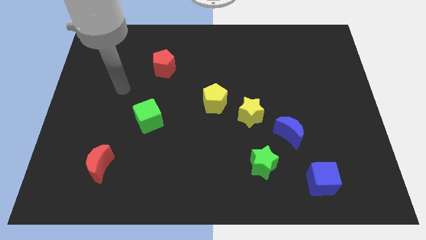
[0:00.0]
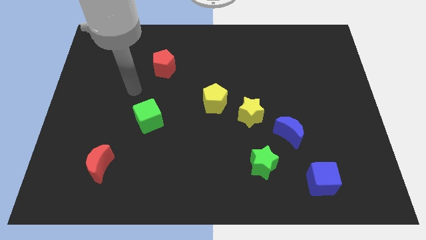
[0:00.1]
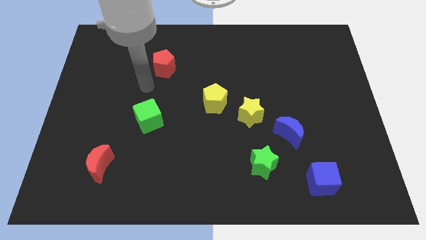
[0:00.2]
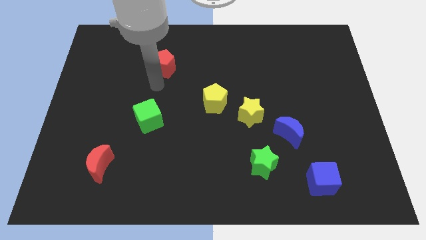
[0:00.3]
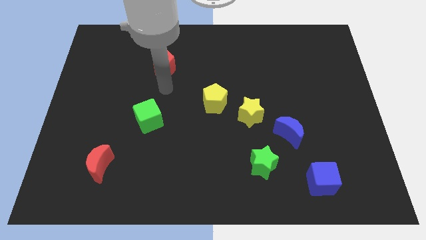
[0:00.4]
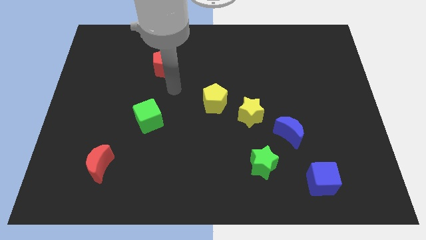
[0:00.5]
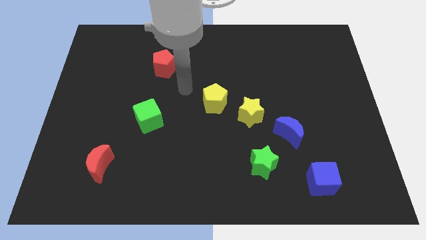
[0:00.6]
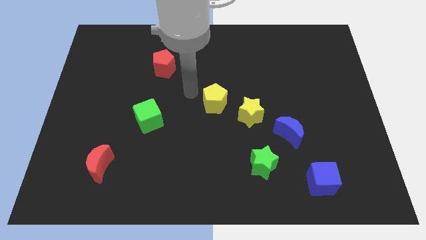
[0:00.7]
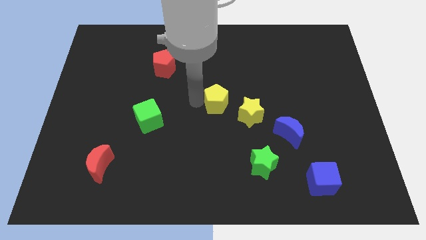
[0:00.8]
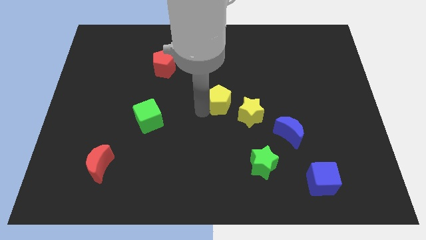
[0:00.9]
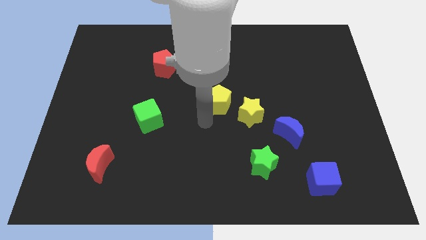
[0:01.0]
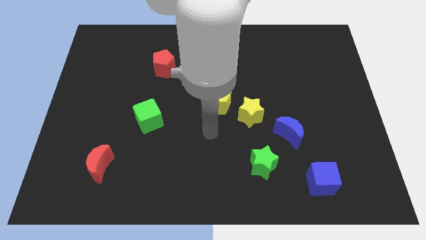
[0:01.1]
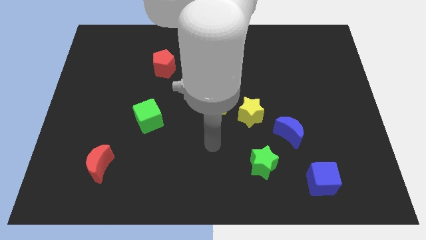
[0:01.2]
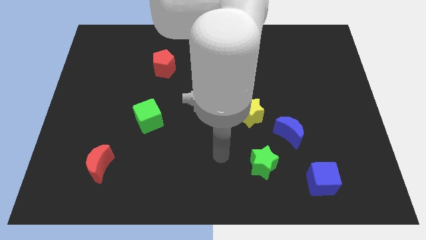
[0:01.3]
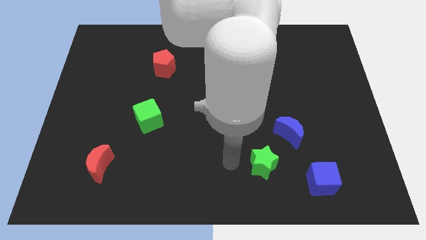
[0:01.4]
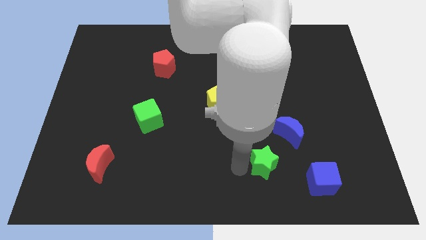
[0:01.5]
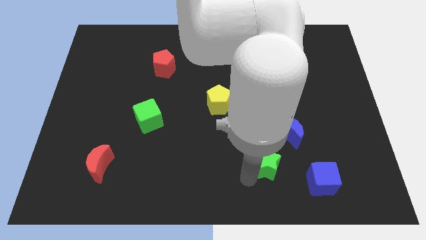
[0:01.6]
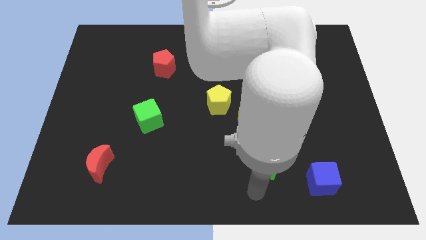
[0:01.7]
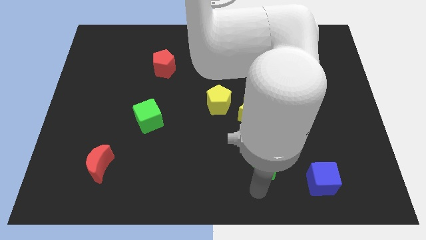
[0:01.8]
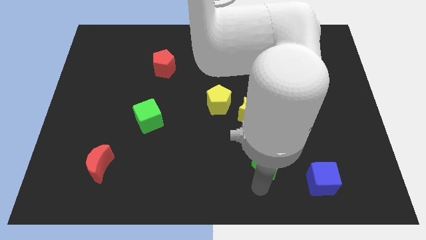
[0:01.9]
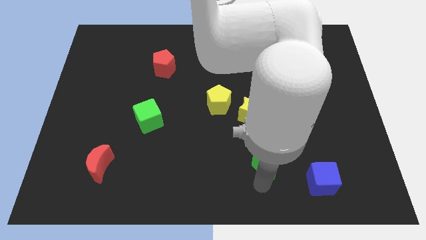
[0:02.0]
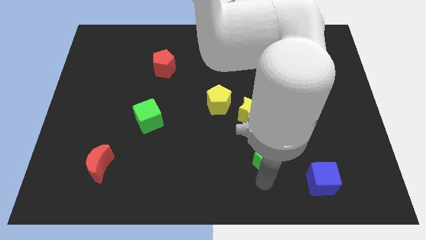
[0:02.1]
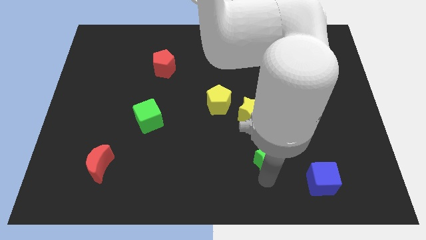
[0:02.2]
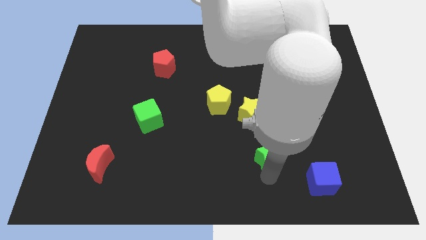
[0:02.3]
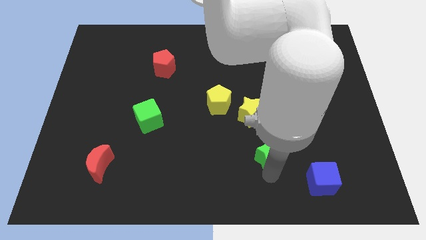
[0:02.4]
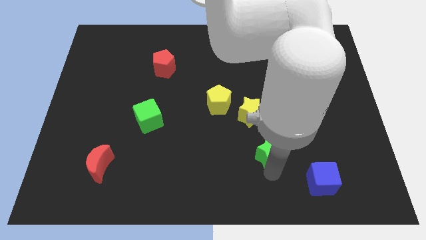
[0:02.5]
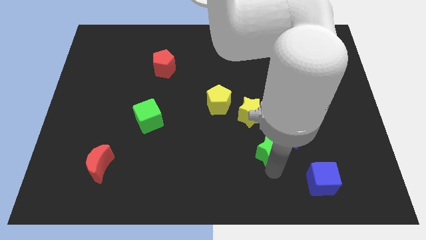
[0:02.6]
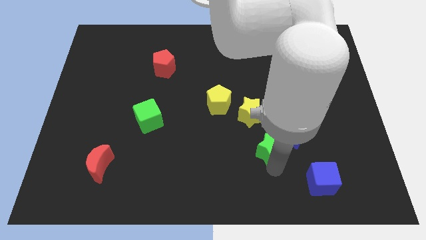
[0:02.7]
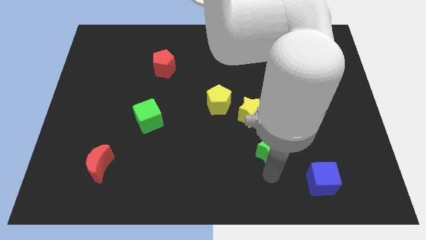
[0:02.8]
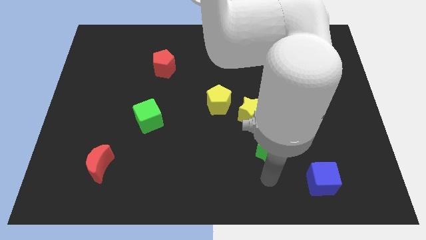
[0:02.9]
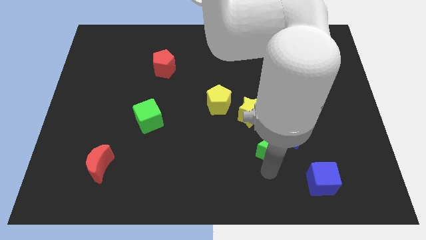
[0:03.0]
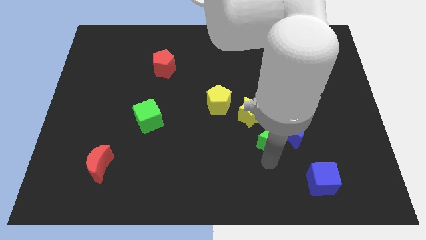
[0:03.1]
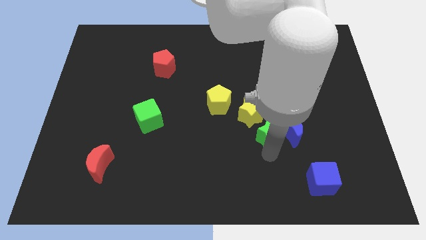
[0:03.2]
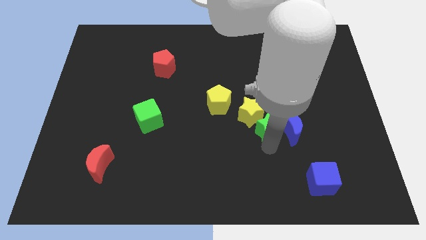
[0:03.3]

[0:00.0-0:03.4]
move the green star slightly up and to the right

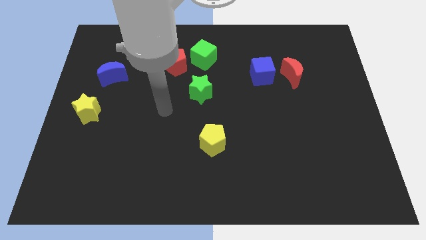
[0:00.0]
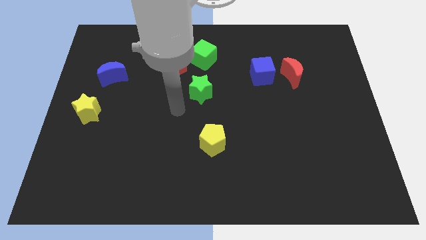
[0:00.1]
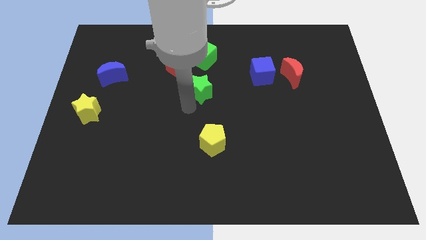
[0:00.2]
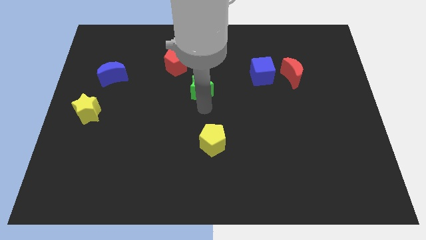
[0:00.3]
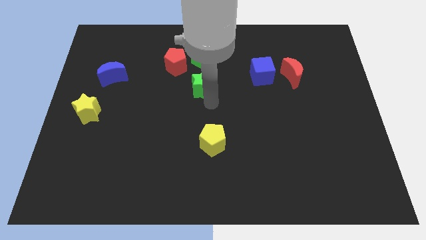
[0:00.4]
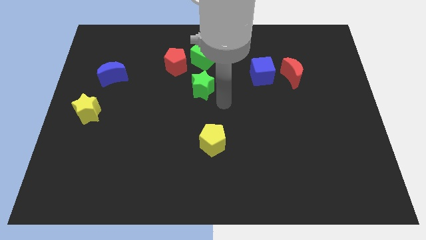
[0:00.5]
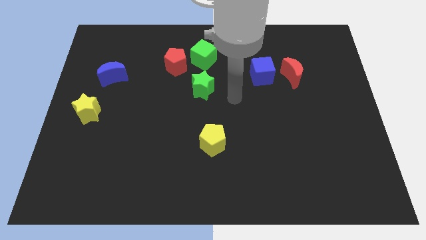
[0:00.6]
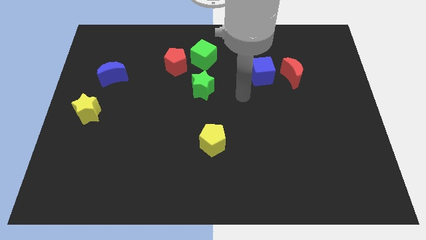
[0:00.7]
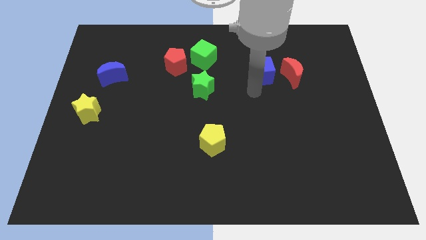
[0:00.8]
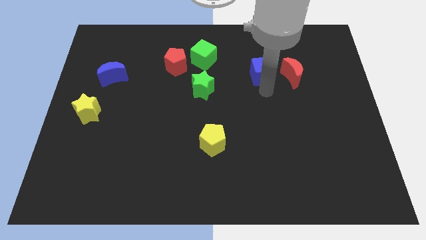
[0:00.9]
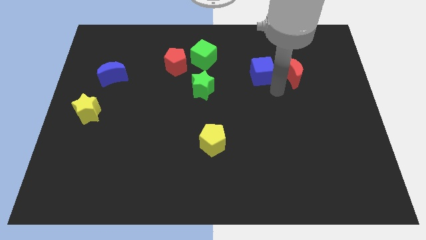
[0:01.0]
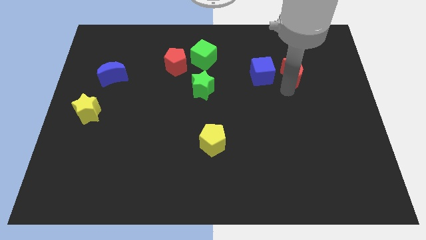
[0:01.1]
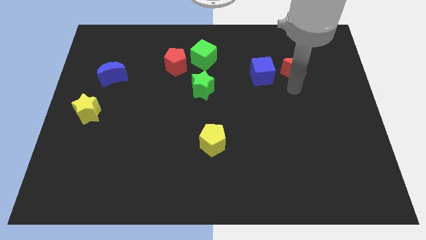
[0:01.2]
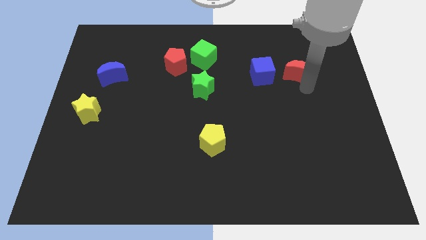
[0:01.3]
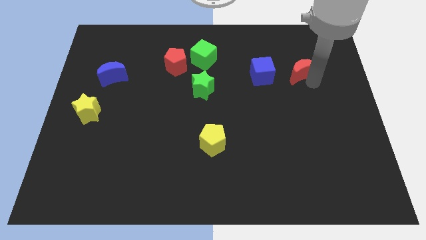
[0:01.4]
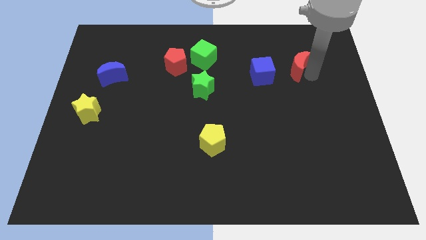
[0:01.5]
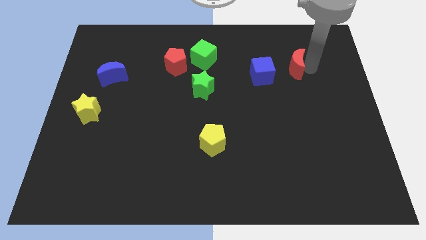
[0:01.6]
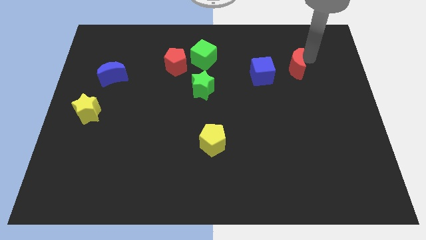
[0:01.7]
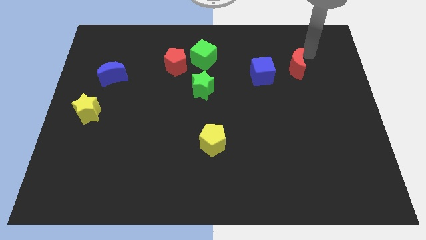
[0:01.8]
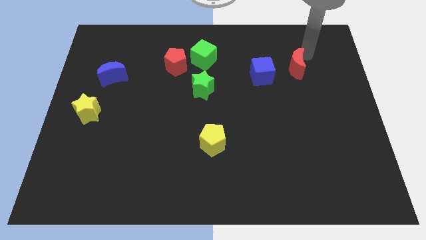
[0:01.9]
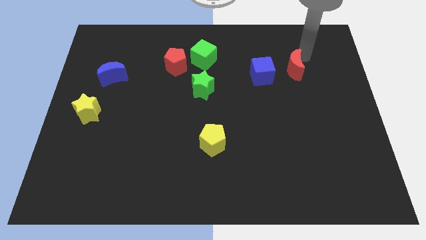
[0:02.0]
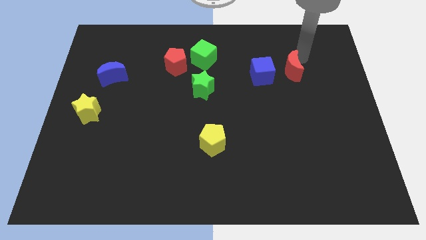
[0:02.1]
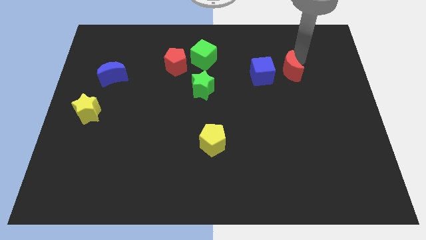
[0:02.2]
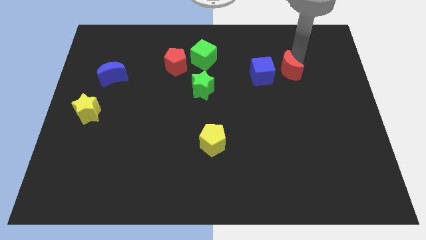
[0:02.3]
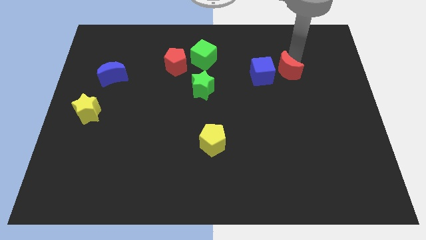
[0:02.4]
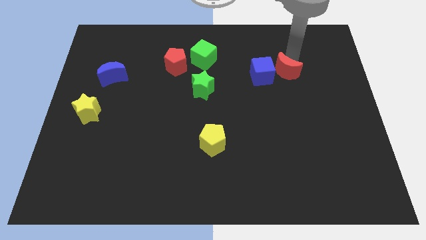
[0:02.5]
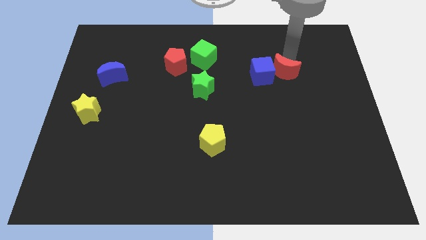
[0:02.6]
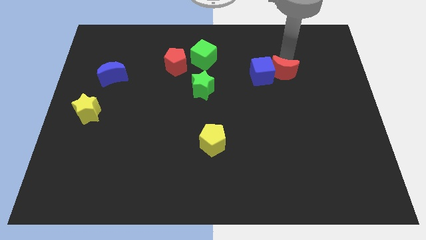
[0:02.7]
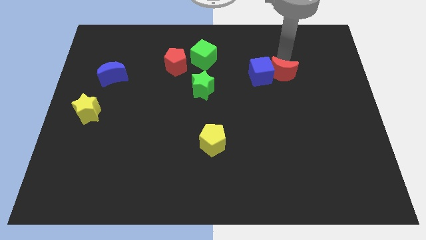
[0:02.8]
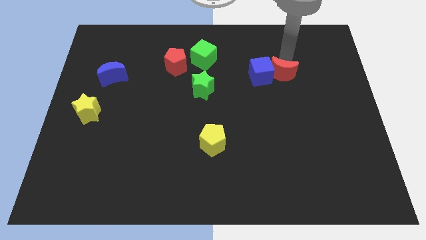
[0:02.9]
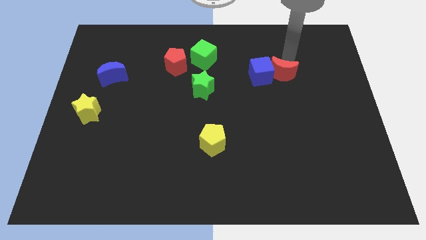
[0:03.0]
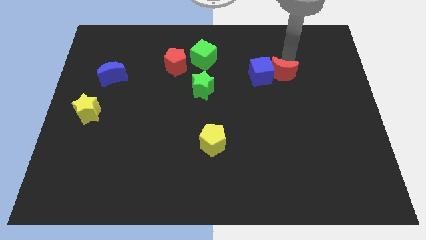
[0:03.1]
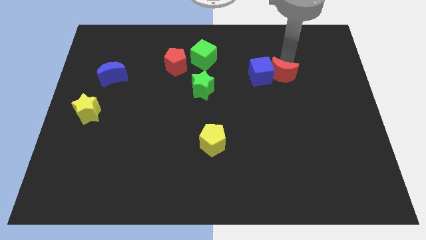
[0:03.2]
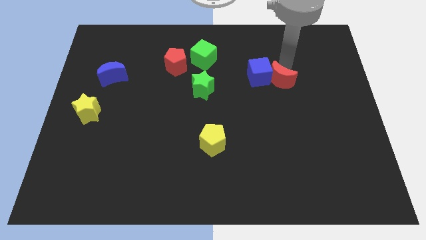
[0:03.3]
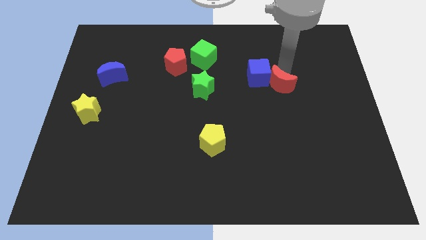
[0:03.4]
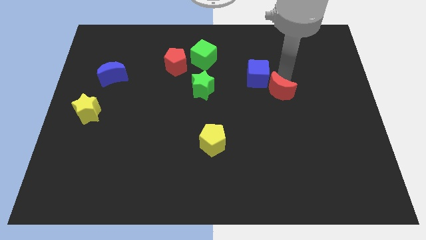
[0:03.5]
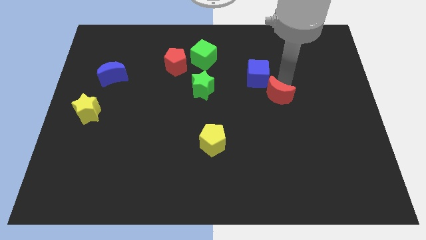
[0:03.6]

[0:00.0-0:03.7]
move the red moon down and to the left diagonally somewhat

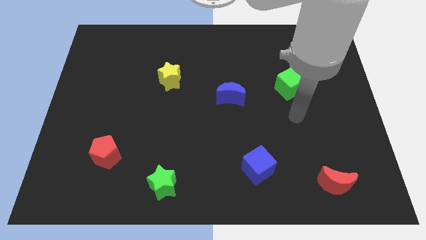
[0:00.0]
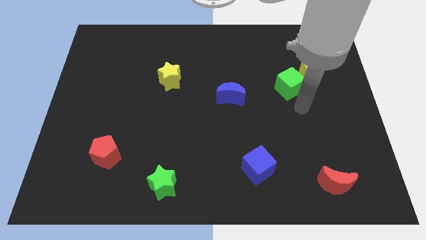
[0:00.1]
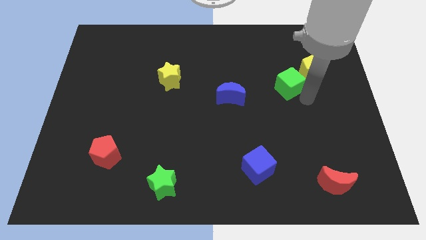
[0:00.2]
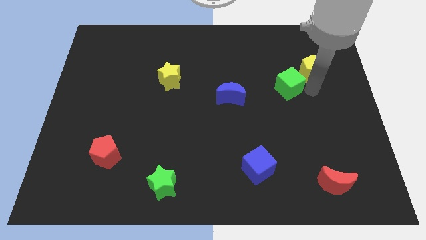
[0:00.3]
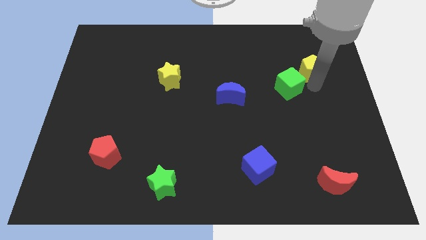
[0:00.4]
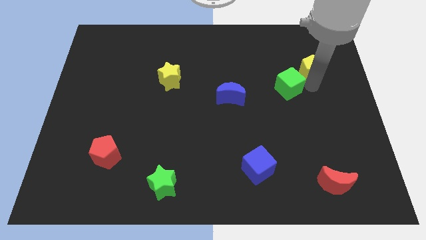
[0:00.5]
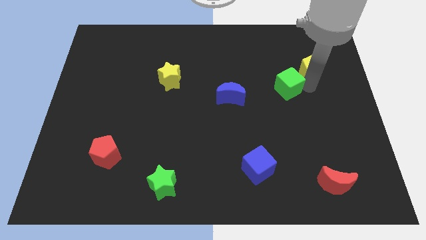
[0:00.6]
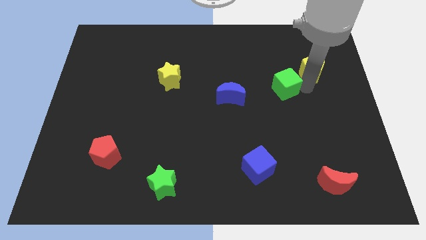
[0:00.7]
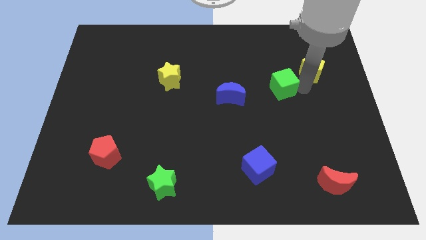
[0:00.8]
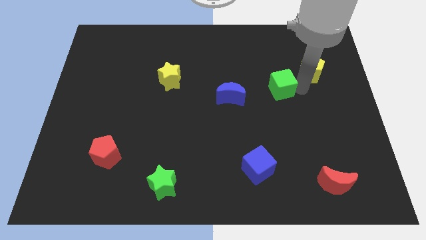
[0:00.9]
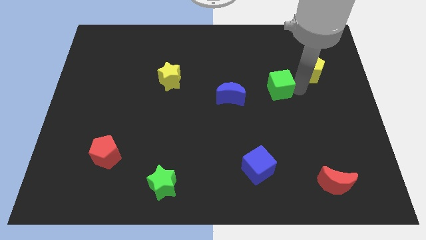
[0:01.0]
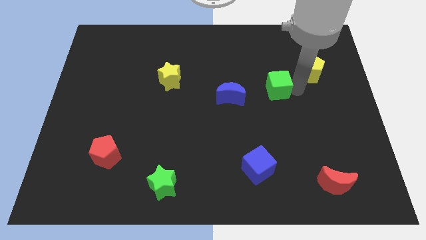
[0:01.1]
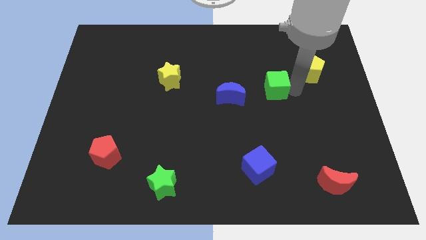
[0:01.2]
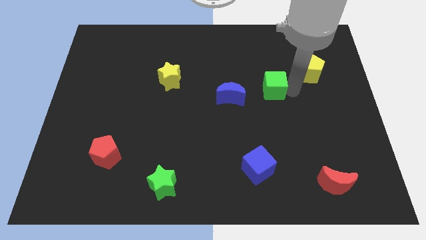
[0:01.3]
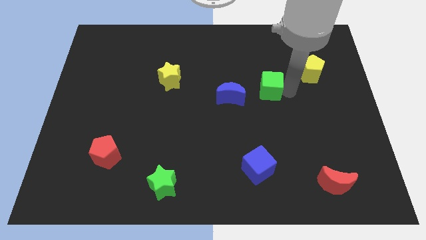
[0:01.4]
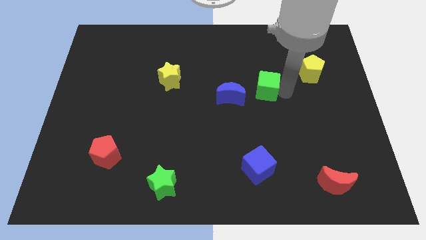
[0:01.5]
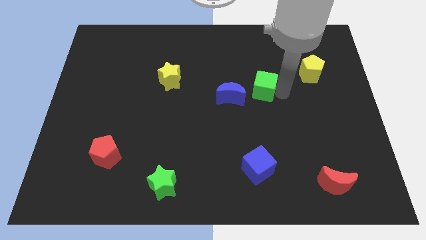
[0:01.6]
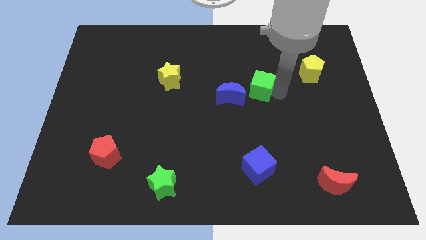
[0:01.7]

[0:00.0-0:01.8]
move the green cube to the left somewhat
